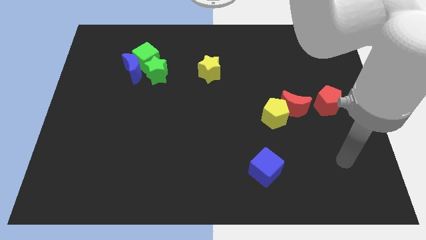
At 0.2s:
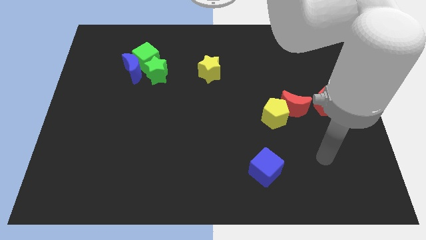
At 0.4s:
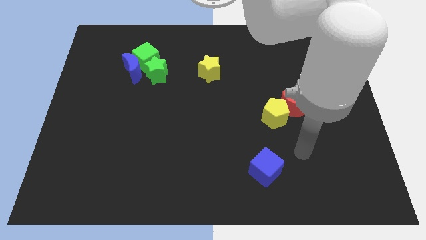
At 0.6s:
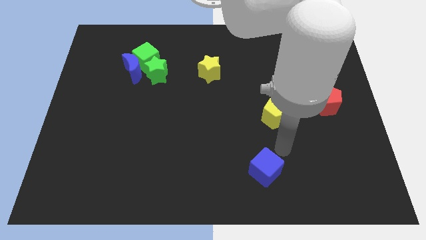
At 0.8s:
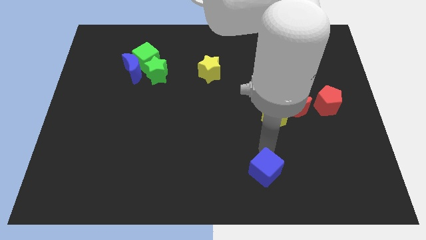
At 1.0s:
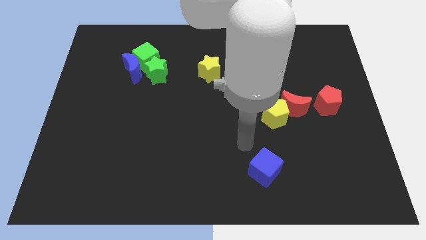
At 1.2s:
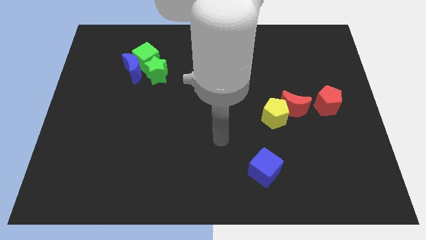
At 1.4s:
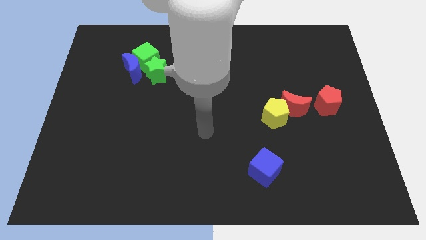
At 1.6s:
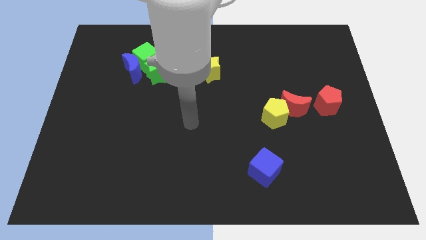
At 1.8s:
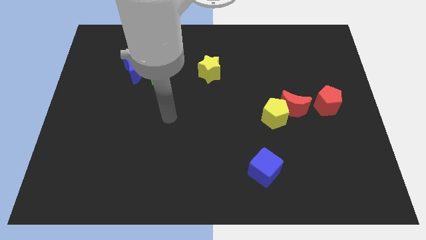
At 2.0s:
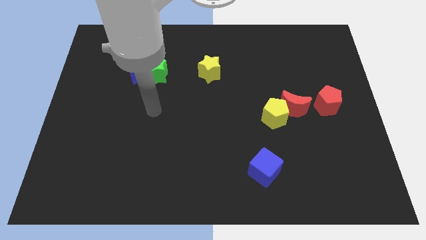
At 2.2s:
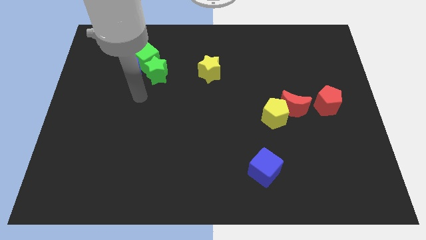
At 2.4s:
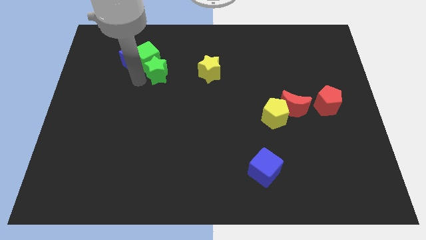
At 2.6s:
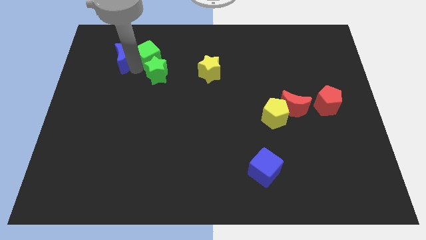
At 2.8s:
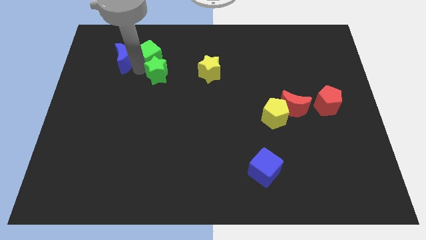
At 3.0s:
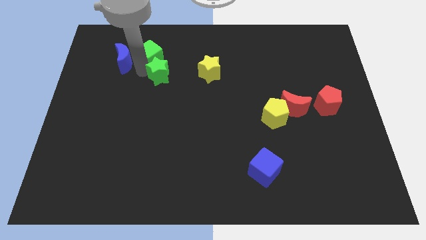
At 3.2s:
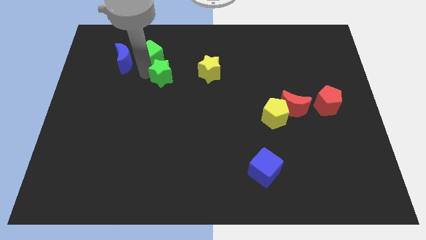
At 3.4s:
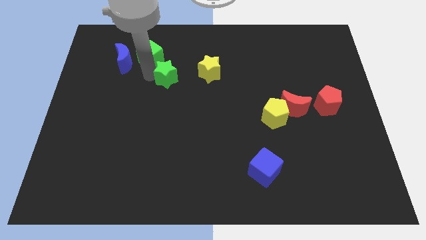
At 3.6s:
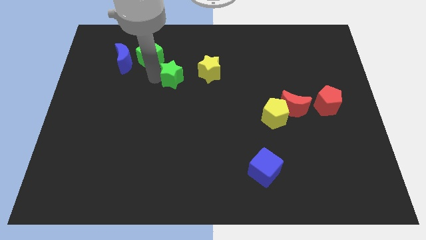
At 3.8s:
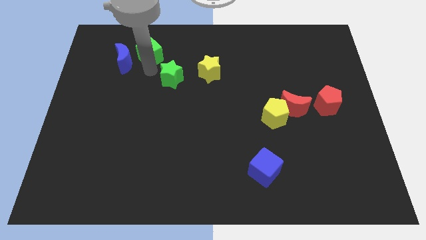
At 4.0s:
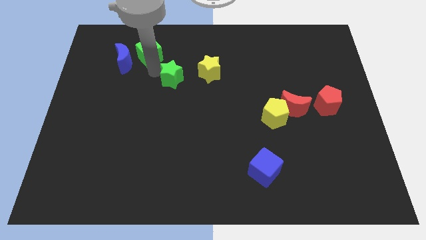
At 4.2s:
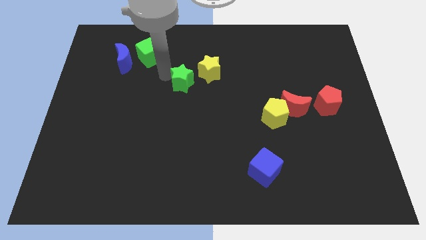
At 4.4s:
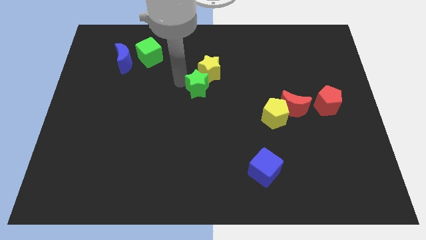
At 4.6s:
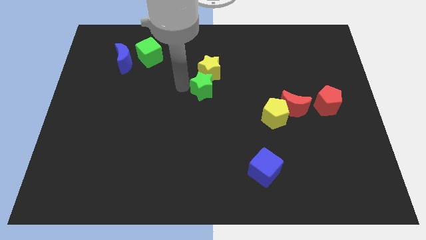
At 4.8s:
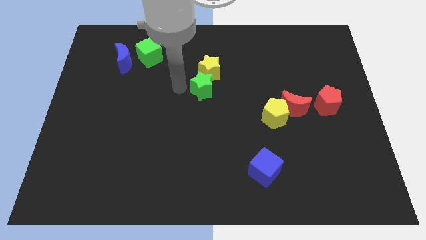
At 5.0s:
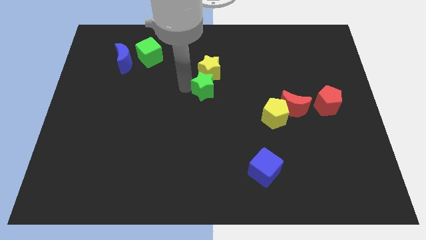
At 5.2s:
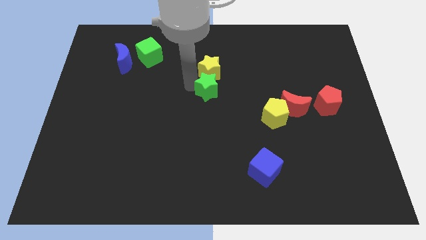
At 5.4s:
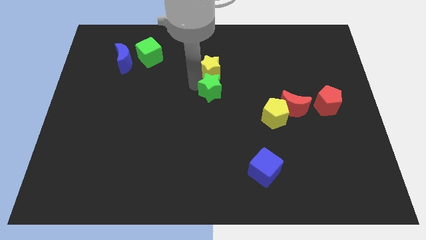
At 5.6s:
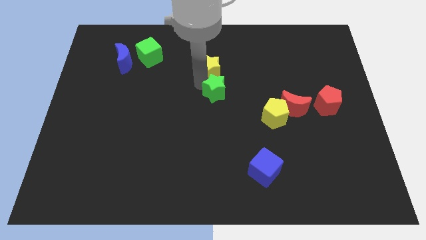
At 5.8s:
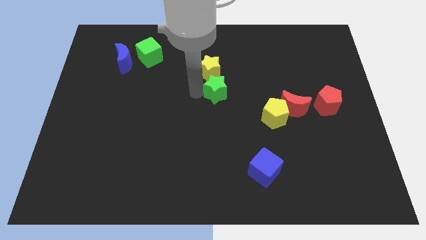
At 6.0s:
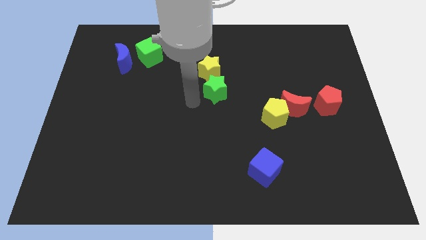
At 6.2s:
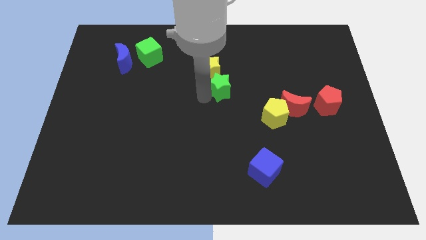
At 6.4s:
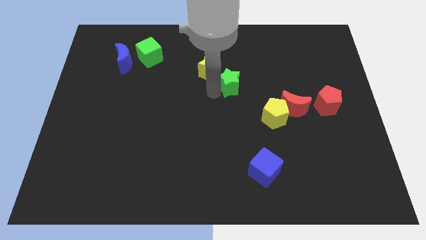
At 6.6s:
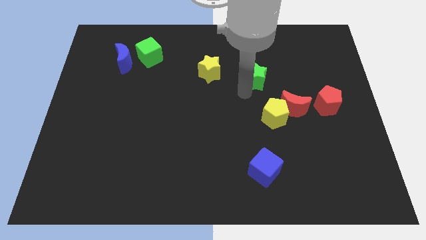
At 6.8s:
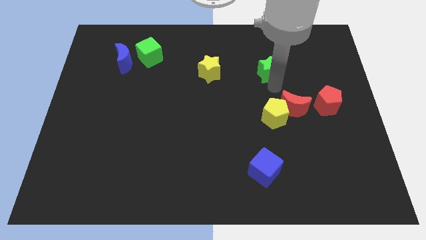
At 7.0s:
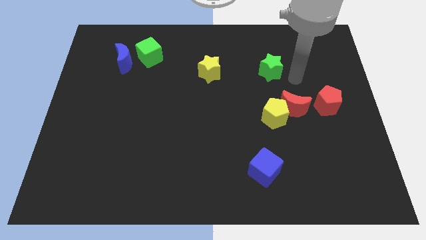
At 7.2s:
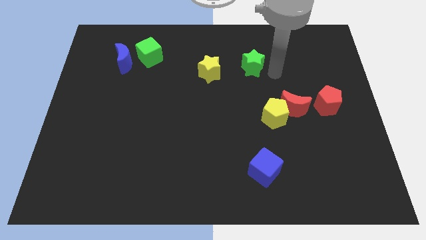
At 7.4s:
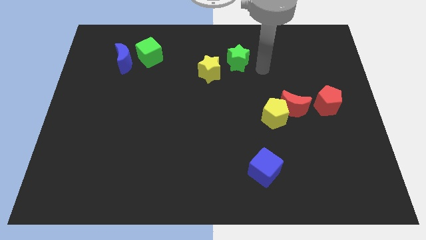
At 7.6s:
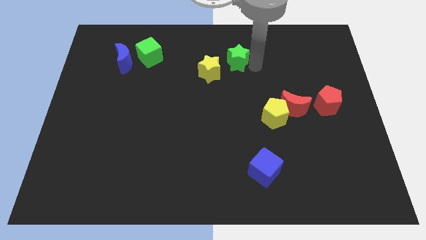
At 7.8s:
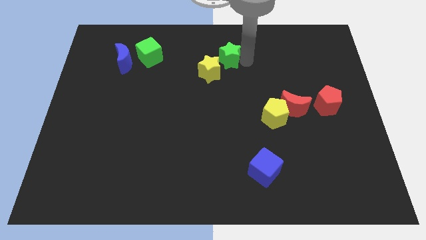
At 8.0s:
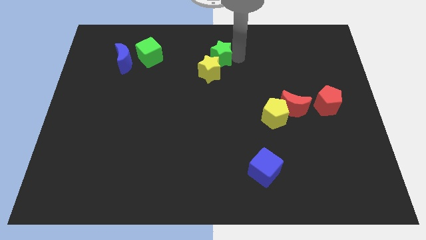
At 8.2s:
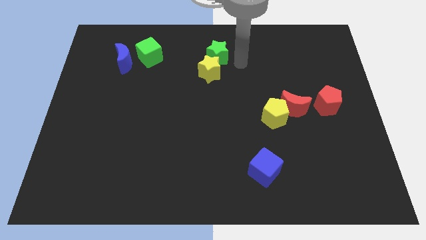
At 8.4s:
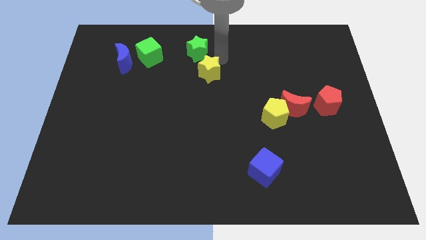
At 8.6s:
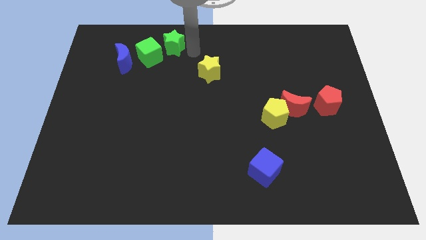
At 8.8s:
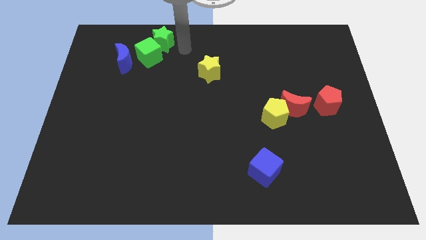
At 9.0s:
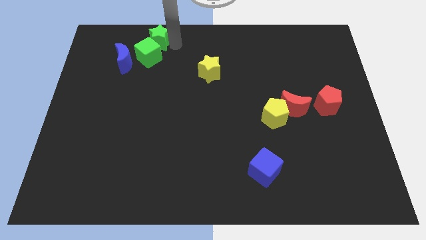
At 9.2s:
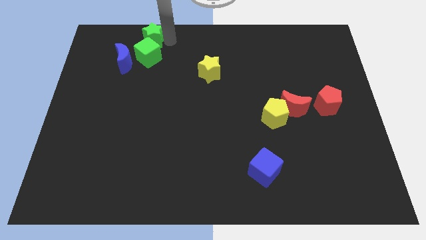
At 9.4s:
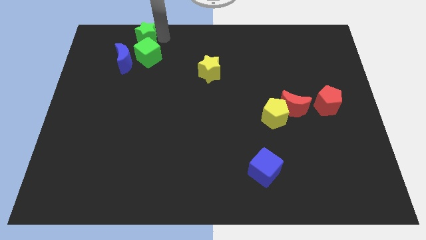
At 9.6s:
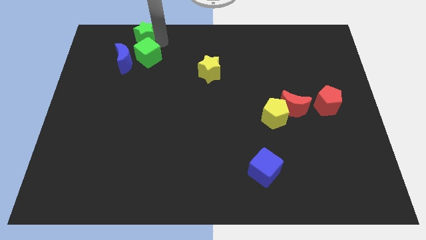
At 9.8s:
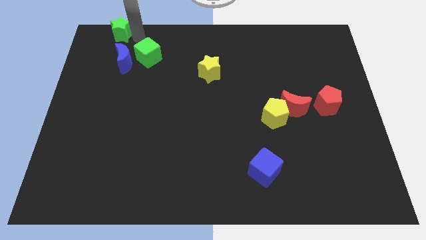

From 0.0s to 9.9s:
put the green star to the top left

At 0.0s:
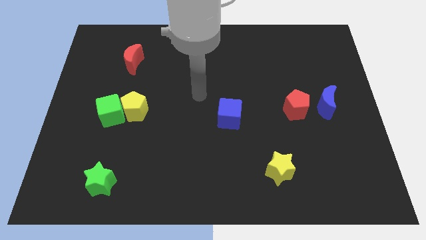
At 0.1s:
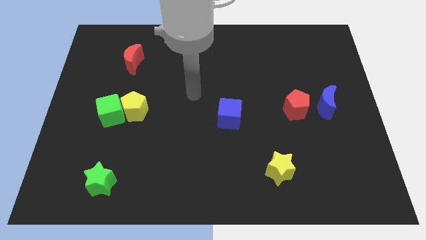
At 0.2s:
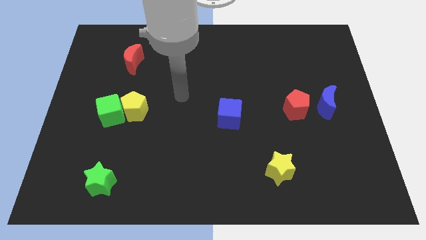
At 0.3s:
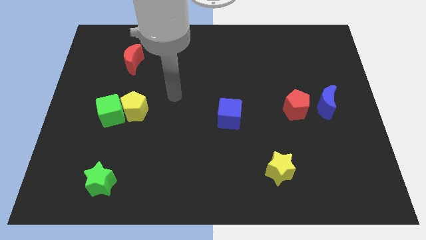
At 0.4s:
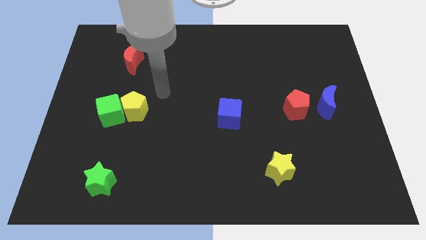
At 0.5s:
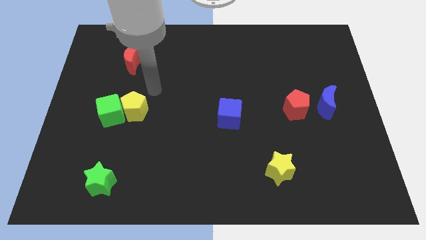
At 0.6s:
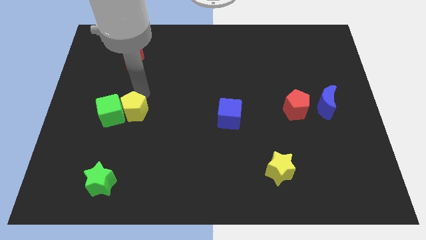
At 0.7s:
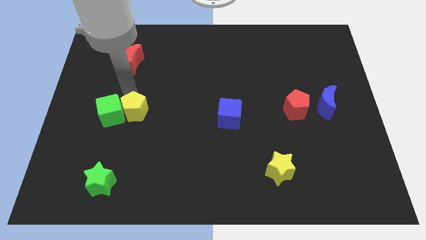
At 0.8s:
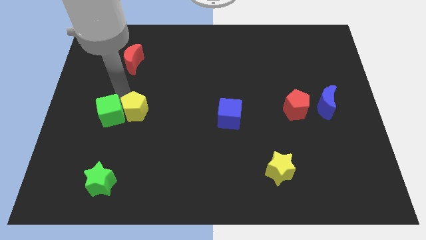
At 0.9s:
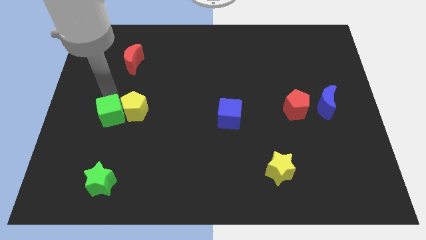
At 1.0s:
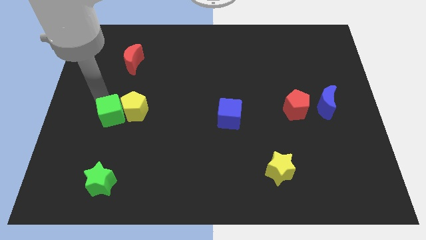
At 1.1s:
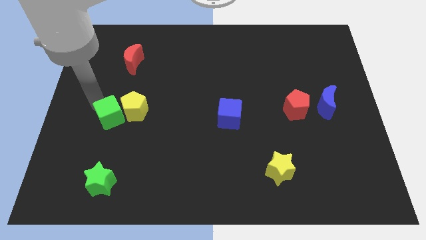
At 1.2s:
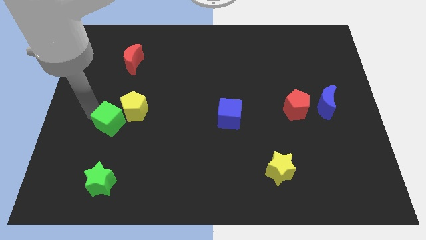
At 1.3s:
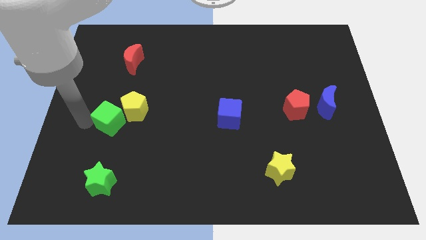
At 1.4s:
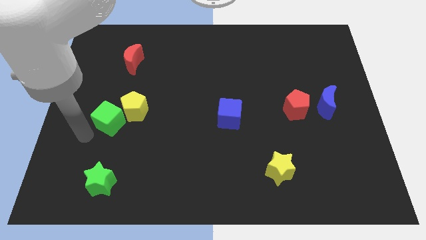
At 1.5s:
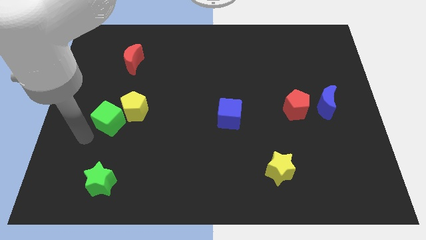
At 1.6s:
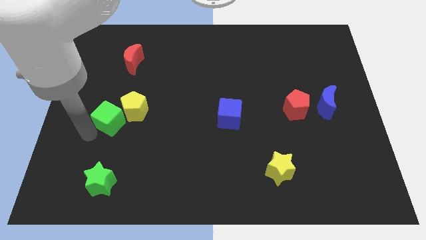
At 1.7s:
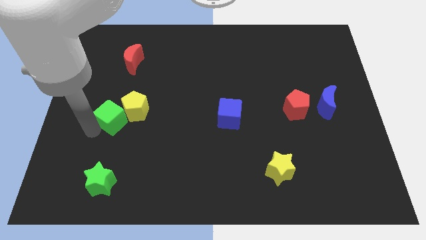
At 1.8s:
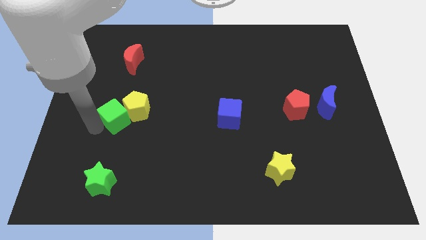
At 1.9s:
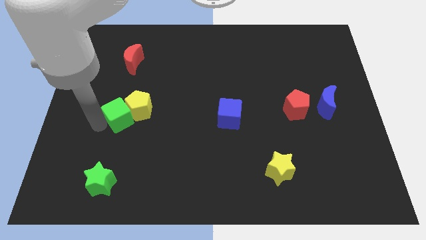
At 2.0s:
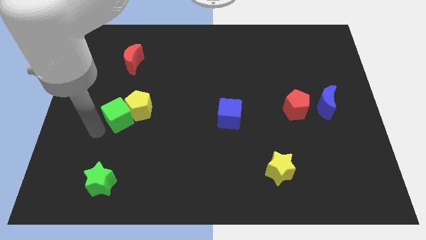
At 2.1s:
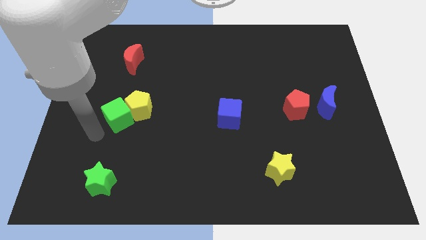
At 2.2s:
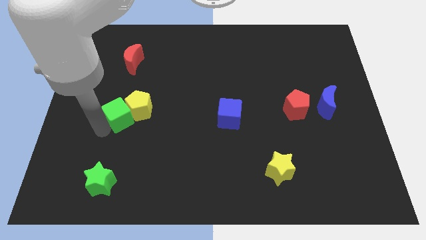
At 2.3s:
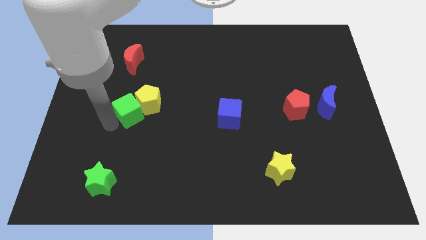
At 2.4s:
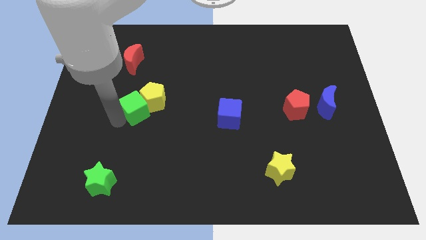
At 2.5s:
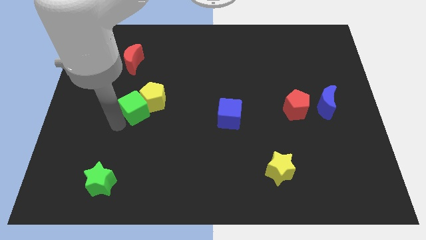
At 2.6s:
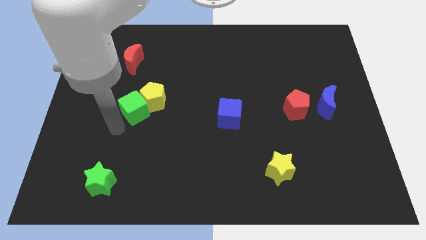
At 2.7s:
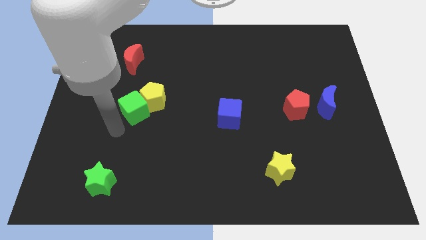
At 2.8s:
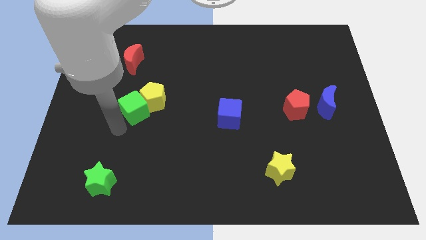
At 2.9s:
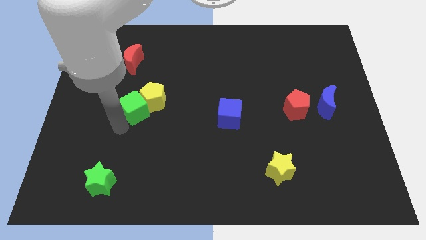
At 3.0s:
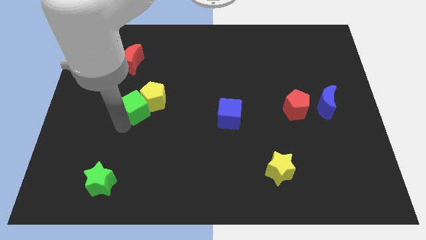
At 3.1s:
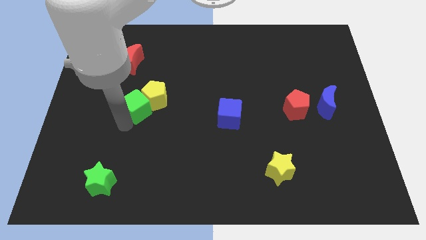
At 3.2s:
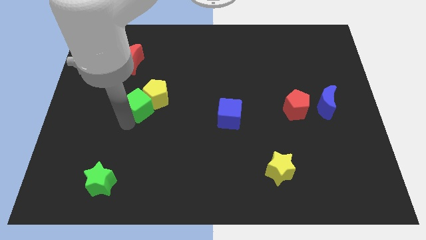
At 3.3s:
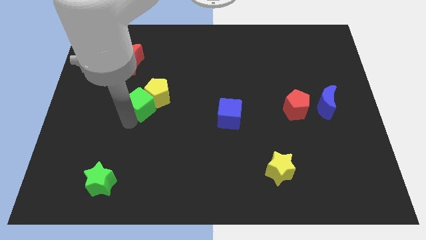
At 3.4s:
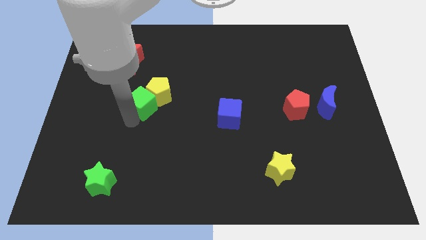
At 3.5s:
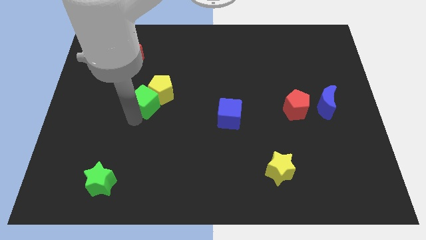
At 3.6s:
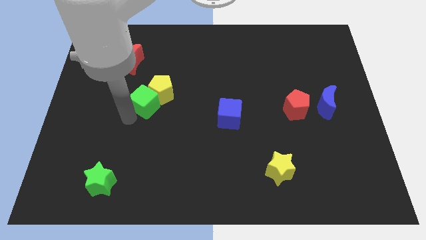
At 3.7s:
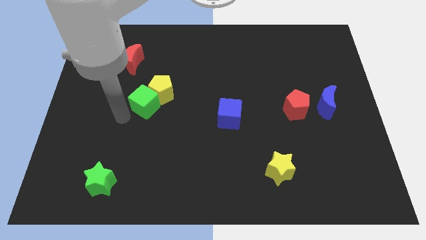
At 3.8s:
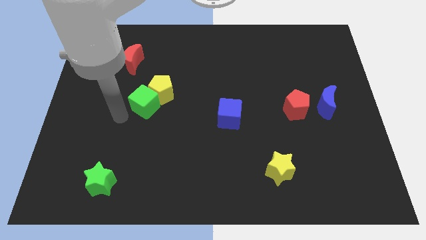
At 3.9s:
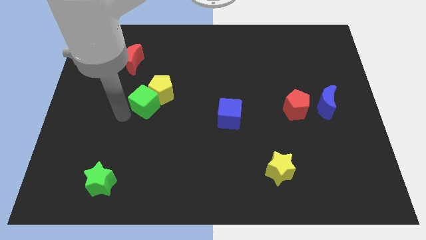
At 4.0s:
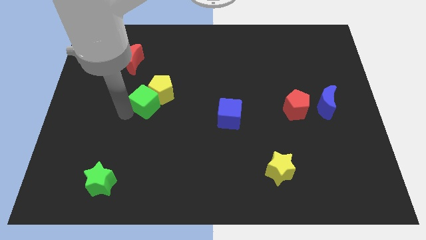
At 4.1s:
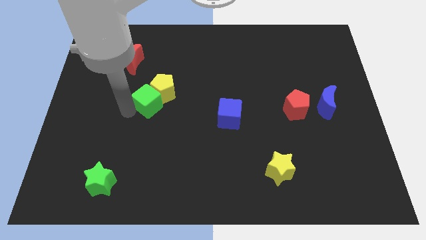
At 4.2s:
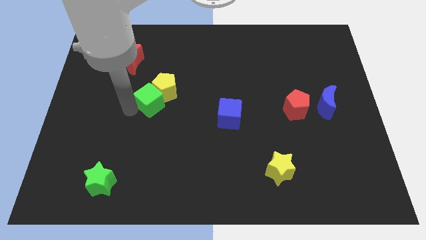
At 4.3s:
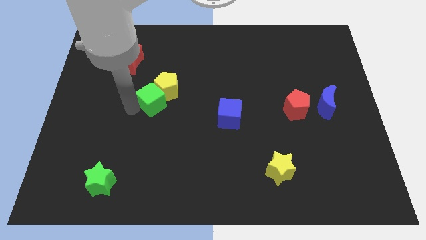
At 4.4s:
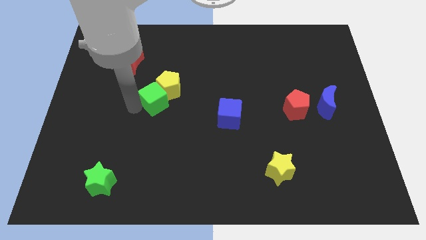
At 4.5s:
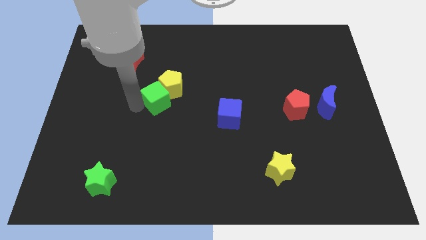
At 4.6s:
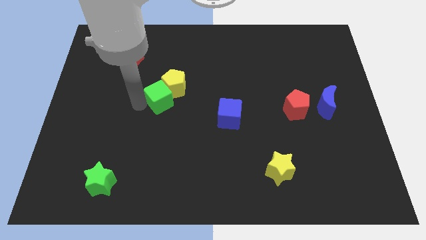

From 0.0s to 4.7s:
slide the green cube to the middle of the board
